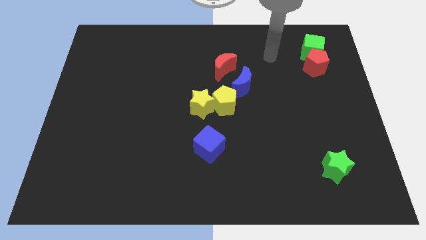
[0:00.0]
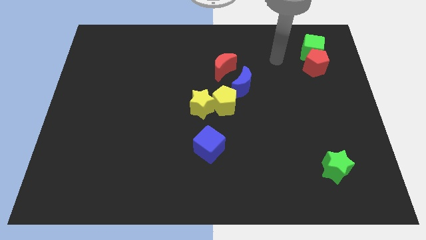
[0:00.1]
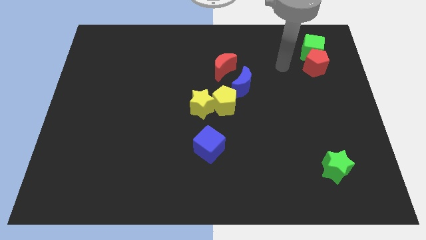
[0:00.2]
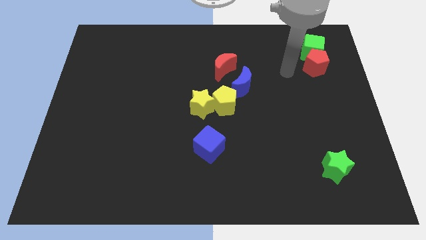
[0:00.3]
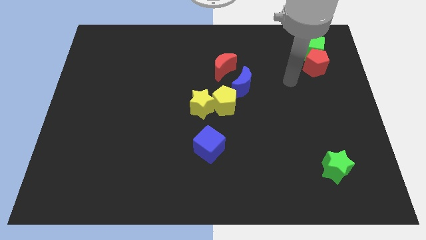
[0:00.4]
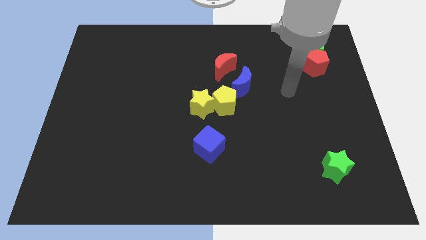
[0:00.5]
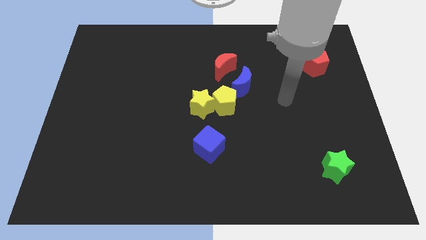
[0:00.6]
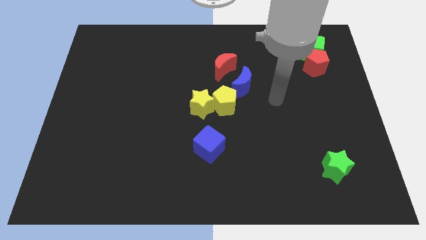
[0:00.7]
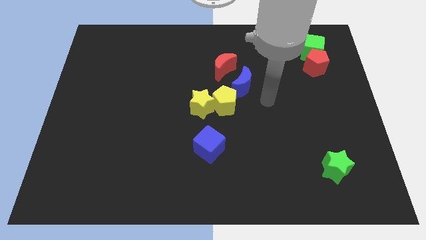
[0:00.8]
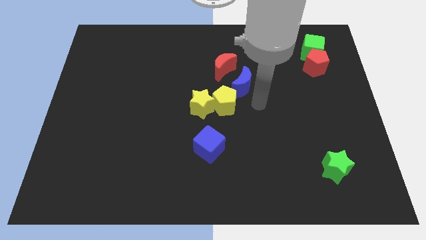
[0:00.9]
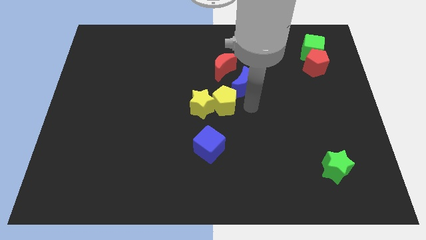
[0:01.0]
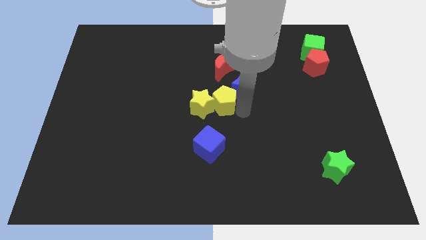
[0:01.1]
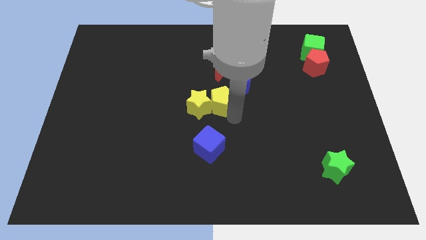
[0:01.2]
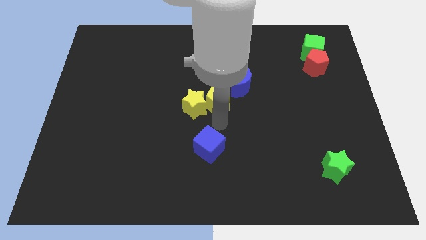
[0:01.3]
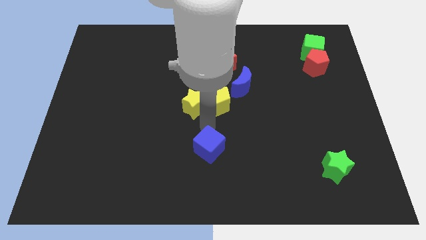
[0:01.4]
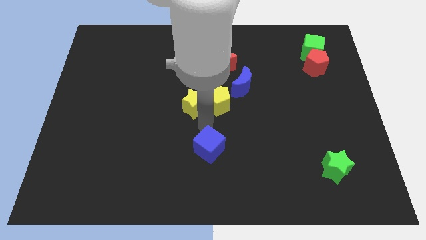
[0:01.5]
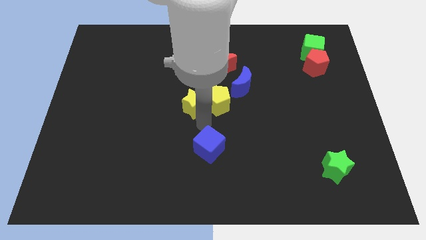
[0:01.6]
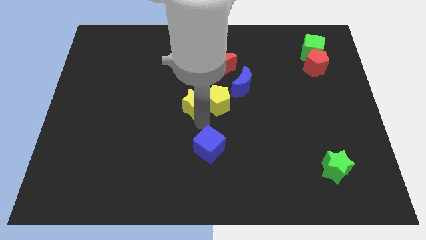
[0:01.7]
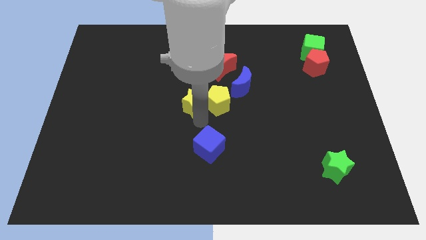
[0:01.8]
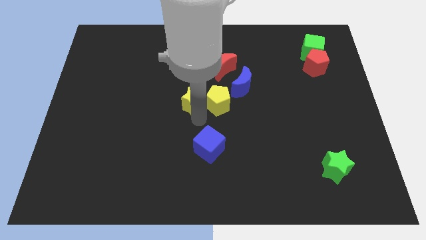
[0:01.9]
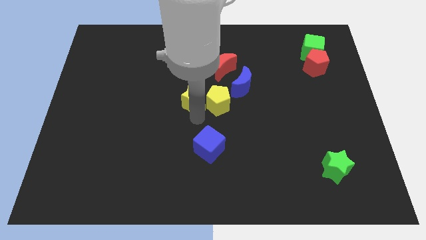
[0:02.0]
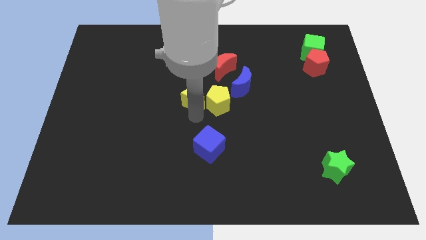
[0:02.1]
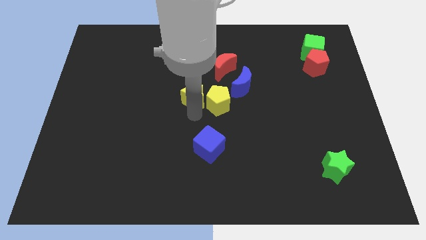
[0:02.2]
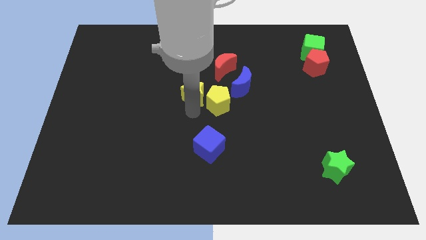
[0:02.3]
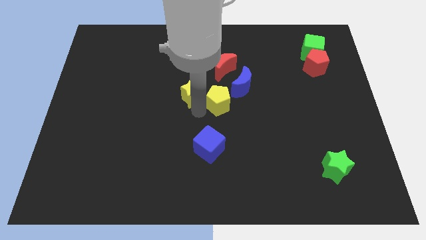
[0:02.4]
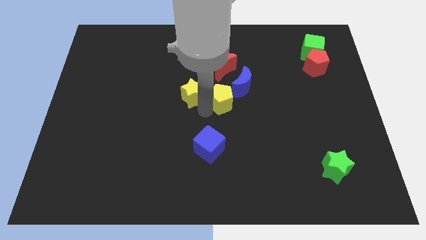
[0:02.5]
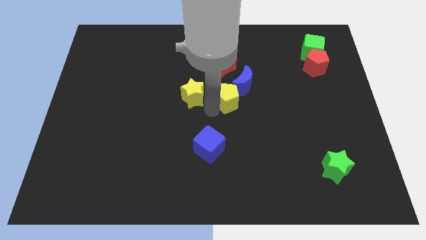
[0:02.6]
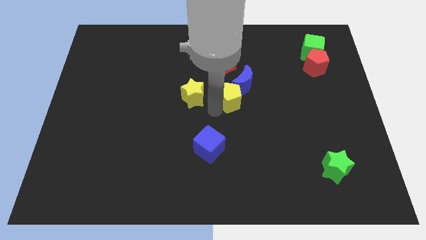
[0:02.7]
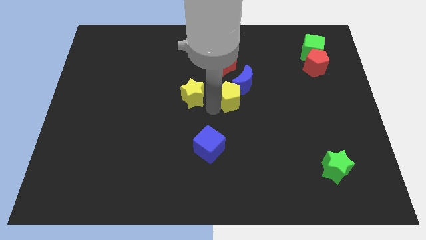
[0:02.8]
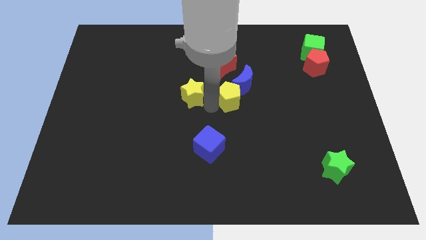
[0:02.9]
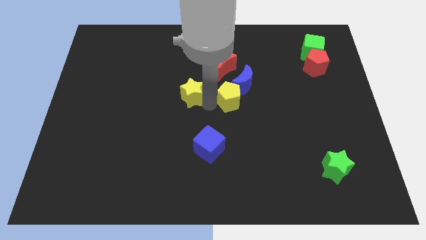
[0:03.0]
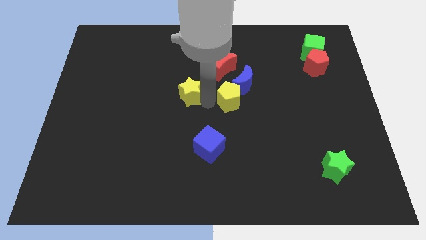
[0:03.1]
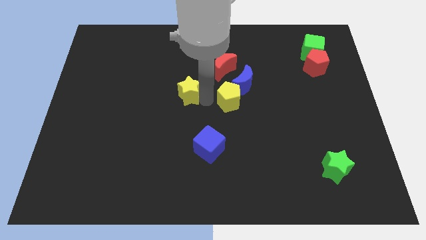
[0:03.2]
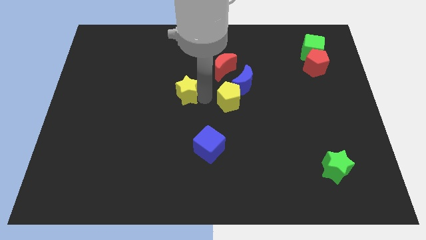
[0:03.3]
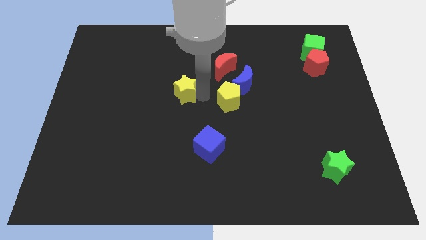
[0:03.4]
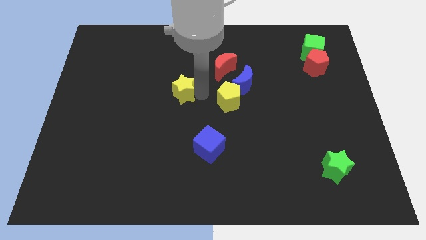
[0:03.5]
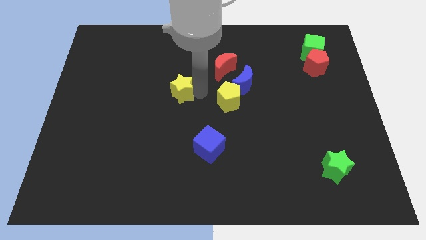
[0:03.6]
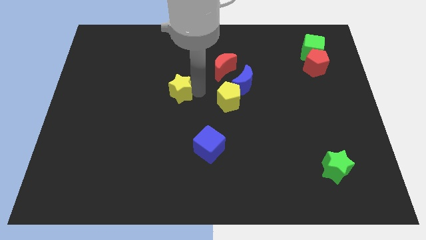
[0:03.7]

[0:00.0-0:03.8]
slightly slide the yellow star diagonally up and to the left

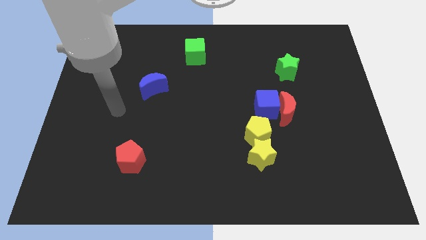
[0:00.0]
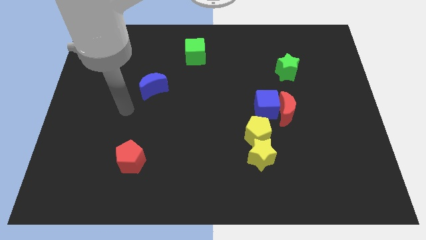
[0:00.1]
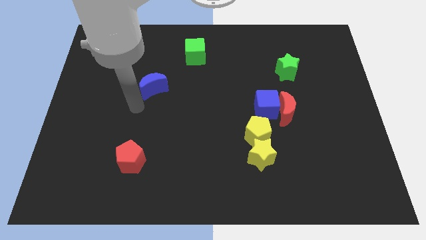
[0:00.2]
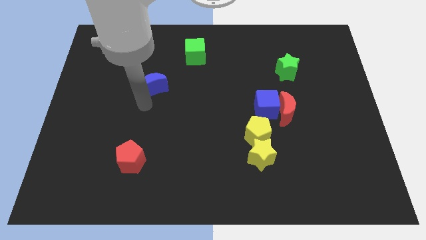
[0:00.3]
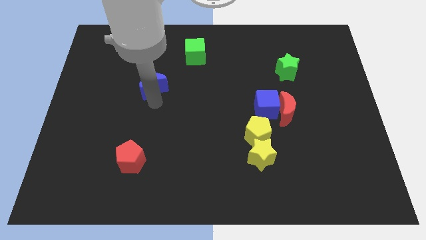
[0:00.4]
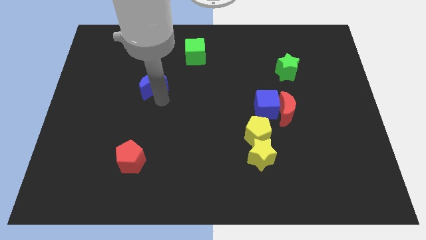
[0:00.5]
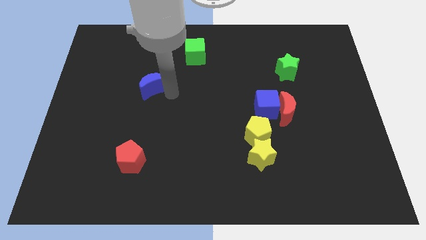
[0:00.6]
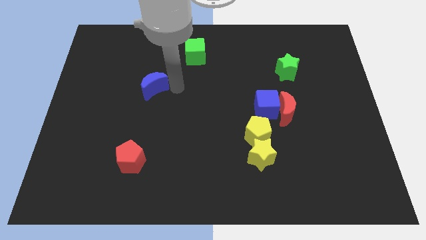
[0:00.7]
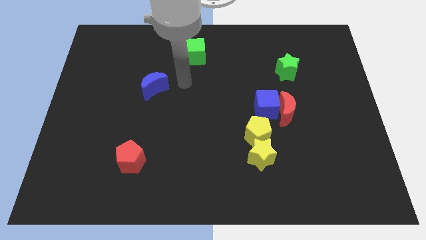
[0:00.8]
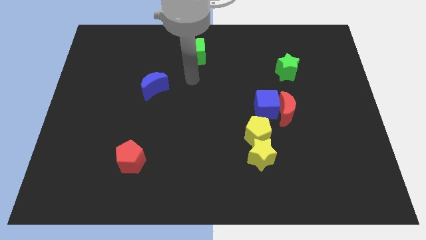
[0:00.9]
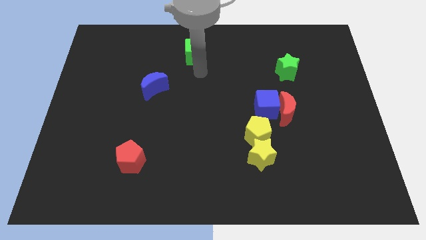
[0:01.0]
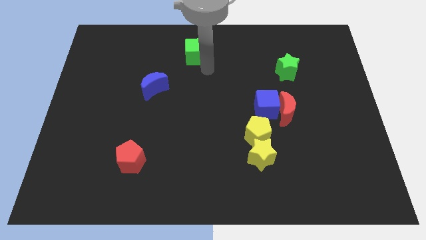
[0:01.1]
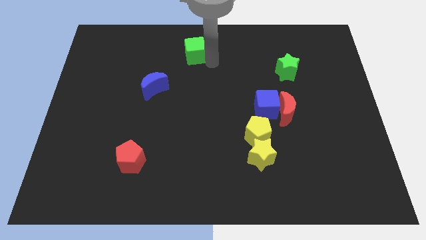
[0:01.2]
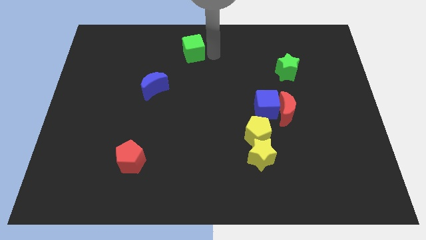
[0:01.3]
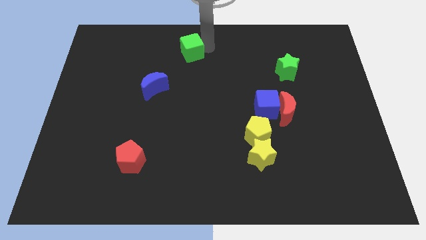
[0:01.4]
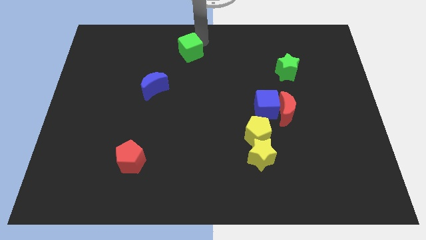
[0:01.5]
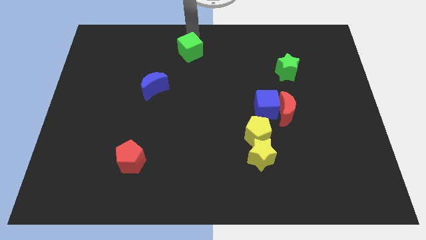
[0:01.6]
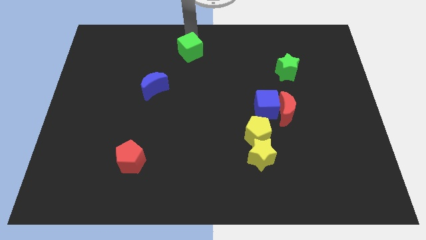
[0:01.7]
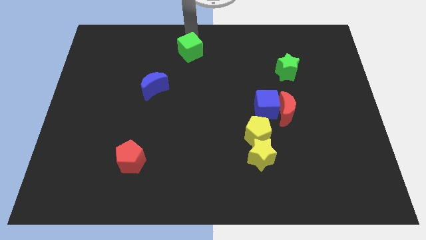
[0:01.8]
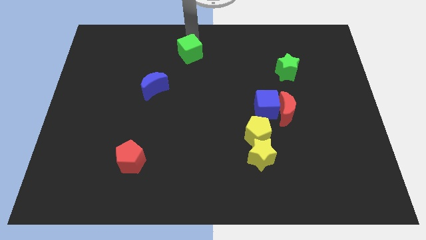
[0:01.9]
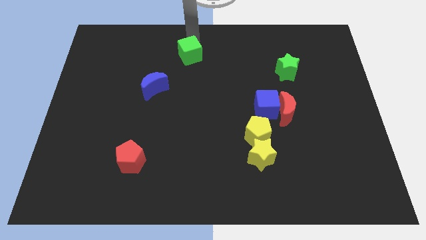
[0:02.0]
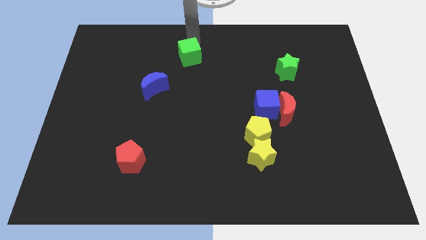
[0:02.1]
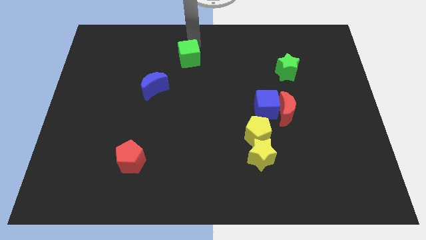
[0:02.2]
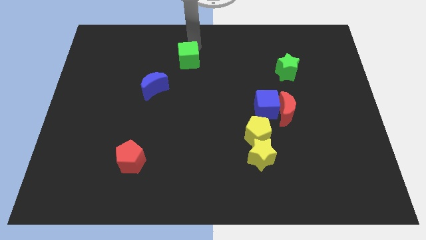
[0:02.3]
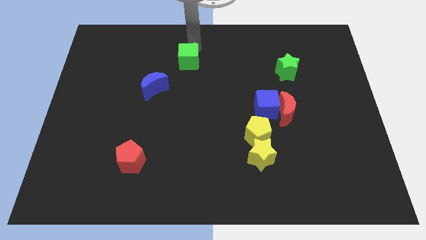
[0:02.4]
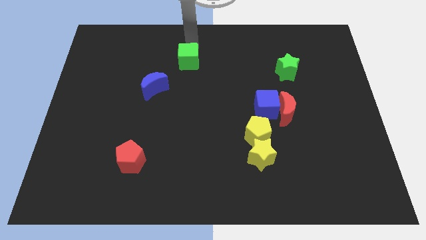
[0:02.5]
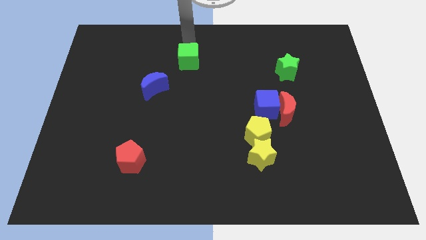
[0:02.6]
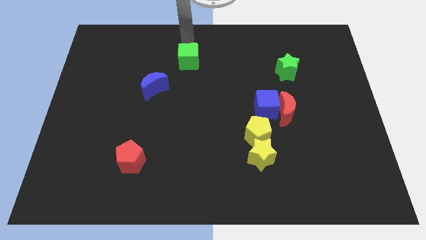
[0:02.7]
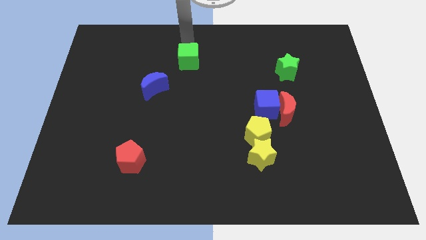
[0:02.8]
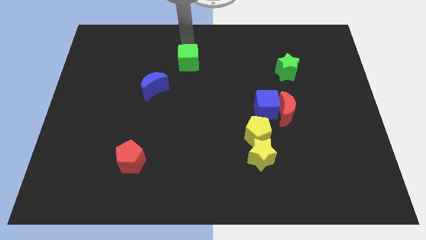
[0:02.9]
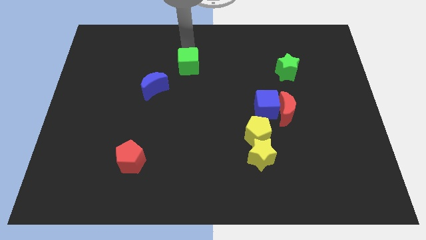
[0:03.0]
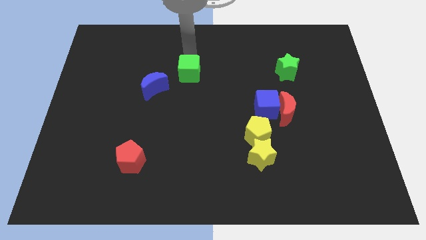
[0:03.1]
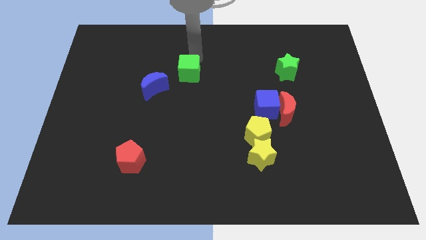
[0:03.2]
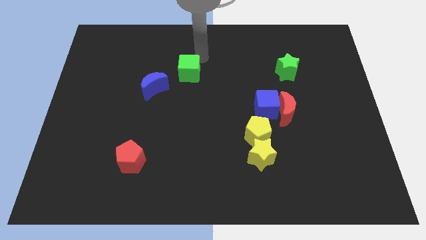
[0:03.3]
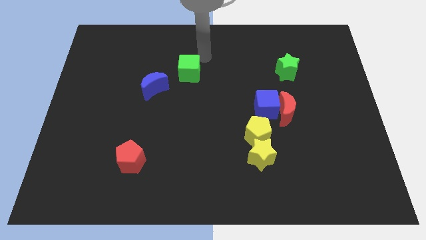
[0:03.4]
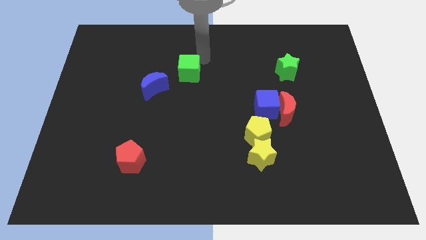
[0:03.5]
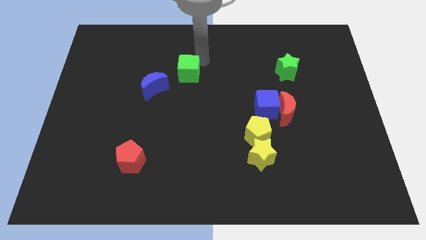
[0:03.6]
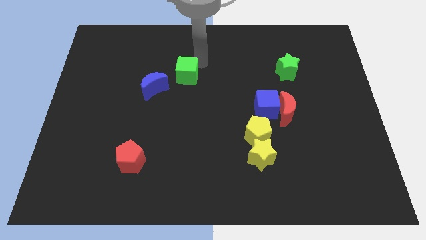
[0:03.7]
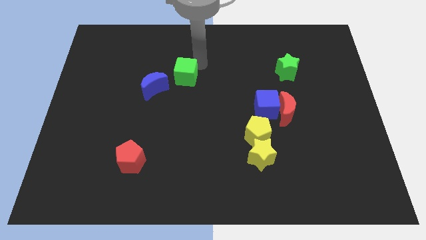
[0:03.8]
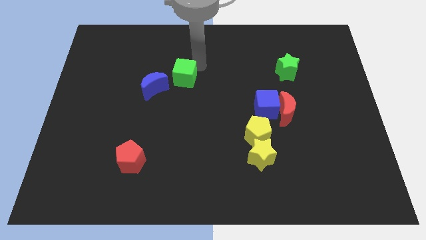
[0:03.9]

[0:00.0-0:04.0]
move the green cube a little down and then left
